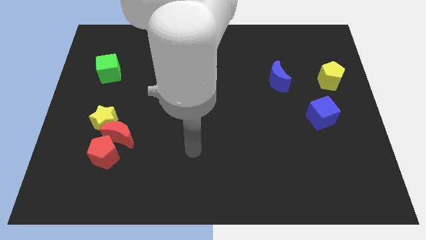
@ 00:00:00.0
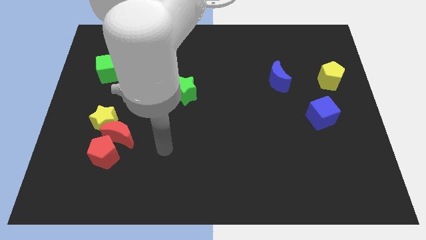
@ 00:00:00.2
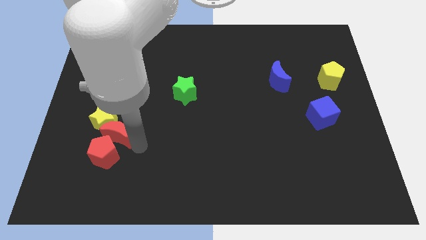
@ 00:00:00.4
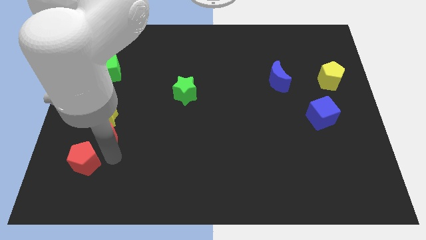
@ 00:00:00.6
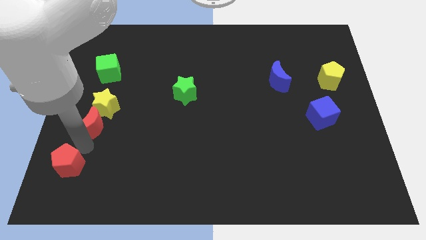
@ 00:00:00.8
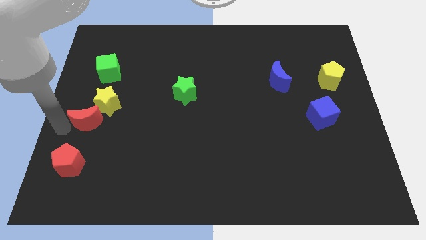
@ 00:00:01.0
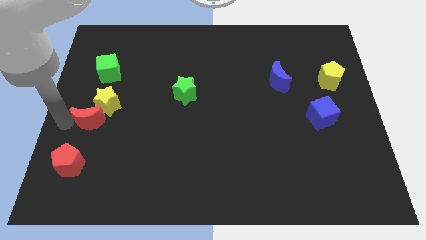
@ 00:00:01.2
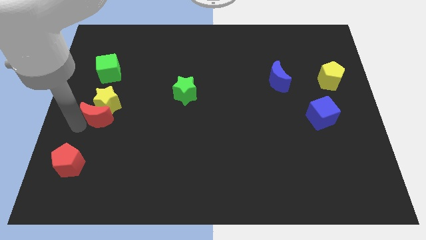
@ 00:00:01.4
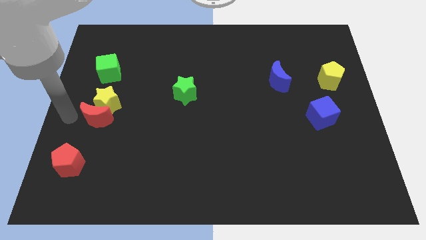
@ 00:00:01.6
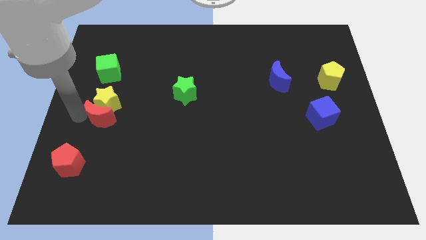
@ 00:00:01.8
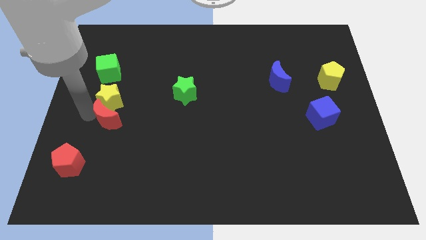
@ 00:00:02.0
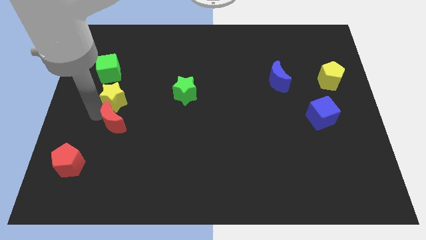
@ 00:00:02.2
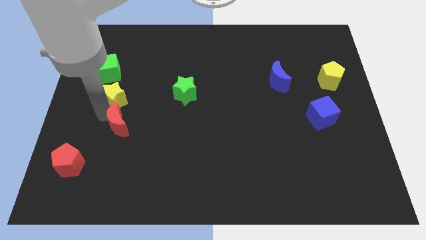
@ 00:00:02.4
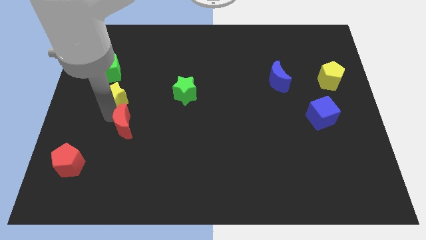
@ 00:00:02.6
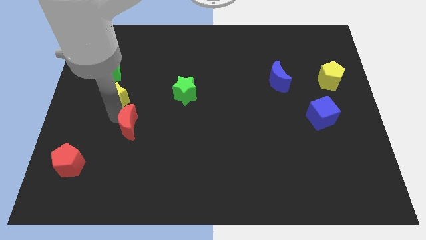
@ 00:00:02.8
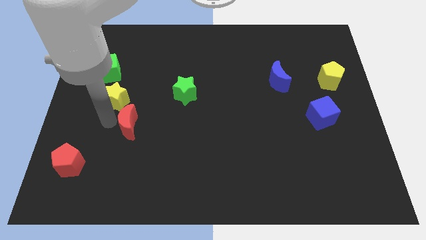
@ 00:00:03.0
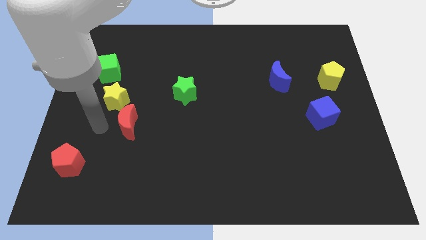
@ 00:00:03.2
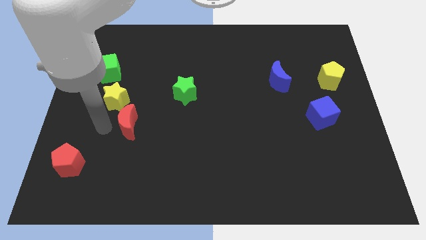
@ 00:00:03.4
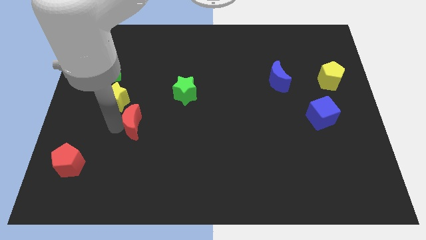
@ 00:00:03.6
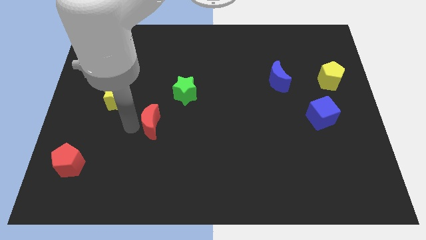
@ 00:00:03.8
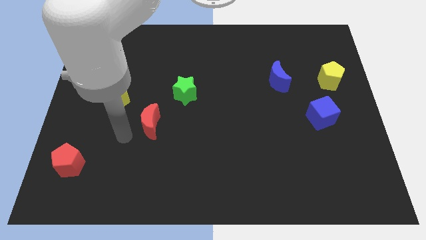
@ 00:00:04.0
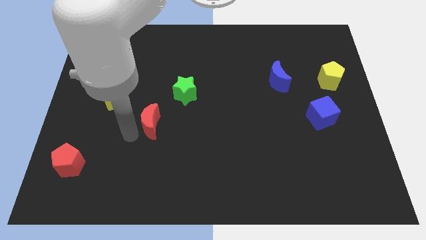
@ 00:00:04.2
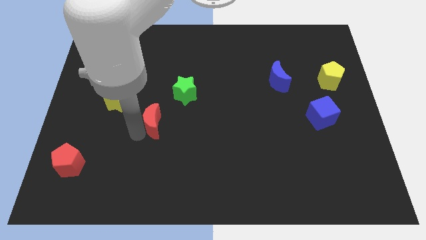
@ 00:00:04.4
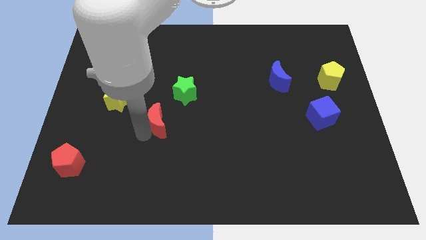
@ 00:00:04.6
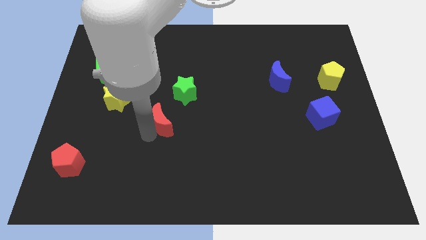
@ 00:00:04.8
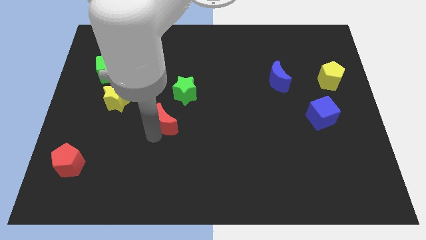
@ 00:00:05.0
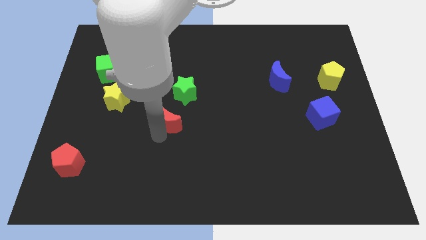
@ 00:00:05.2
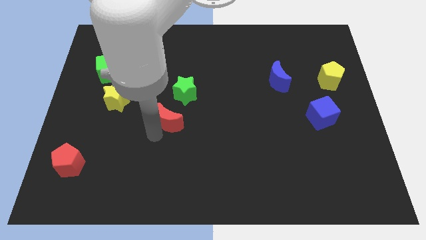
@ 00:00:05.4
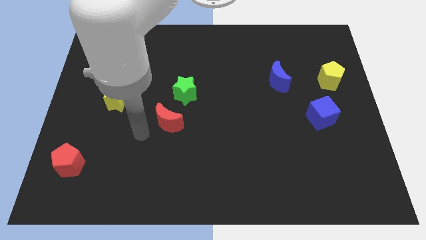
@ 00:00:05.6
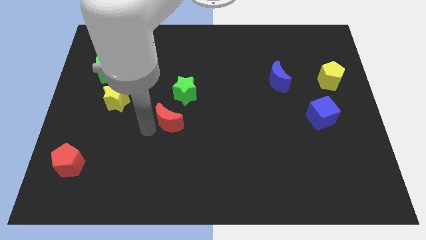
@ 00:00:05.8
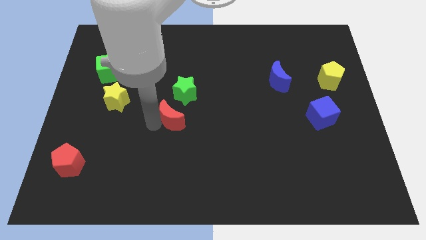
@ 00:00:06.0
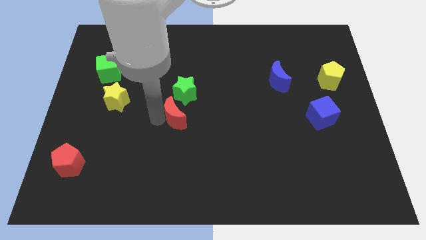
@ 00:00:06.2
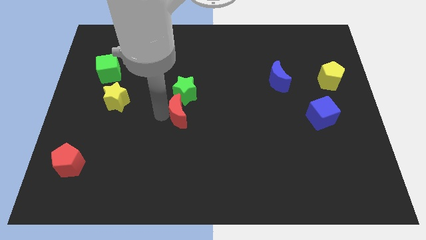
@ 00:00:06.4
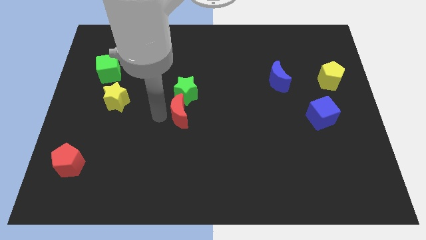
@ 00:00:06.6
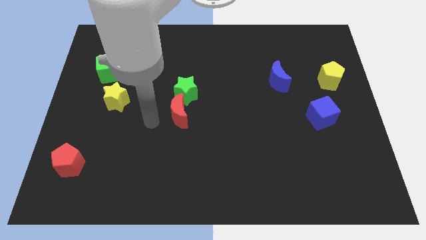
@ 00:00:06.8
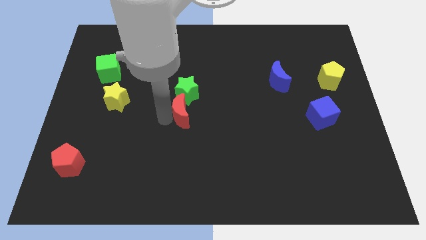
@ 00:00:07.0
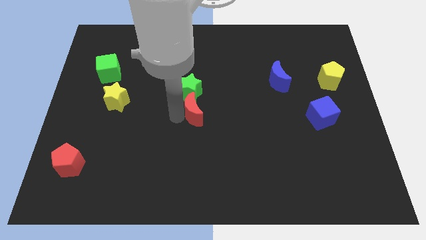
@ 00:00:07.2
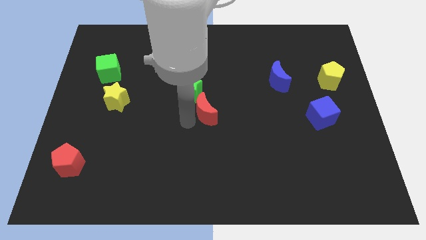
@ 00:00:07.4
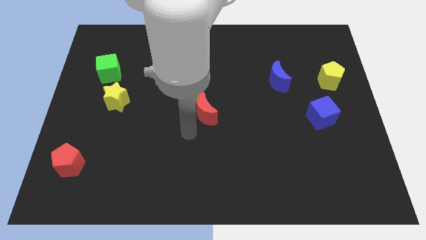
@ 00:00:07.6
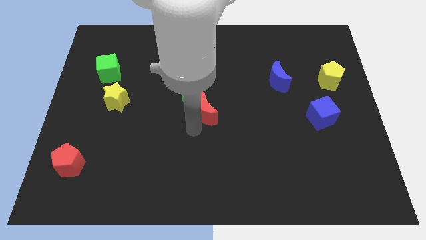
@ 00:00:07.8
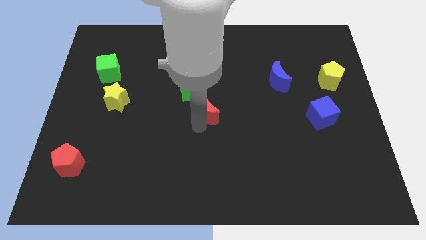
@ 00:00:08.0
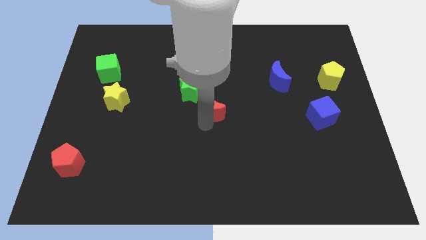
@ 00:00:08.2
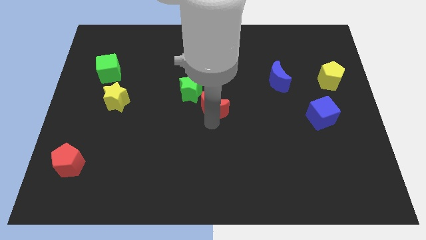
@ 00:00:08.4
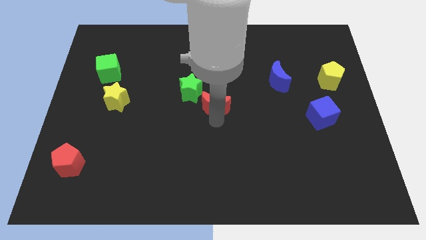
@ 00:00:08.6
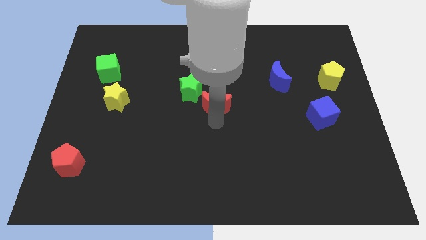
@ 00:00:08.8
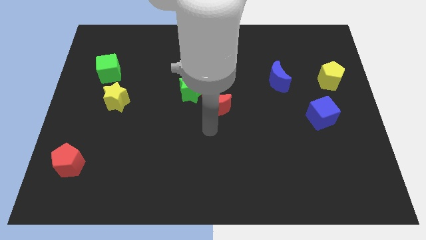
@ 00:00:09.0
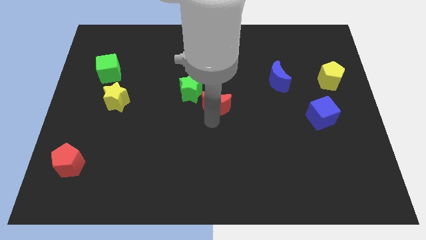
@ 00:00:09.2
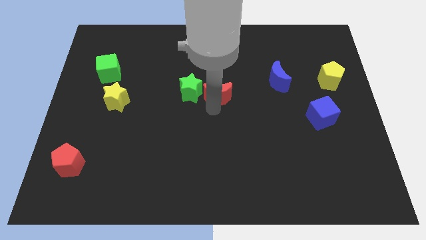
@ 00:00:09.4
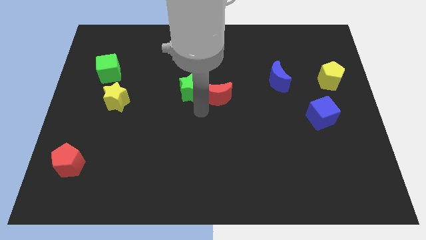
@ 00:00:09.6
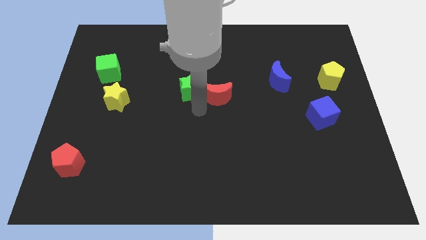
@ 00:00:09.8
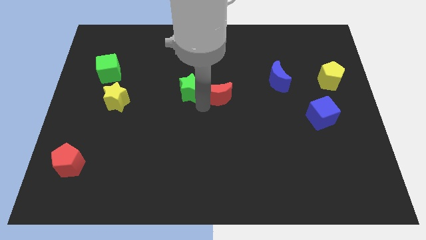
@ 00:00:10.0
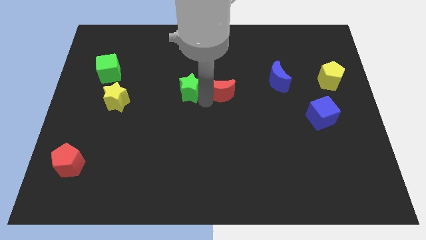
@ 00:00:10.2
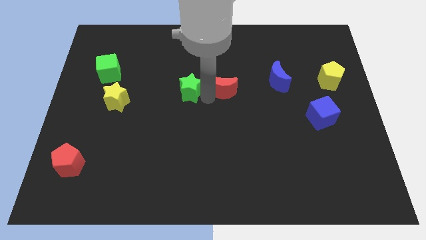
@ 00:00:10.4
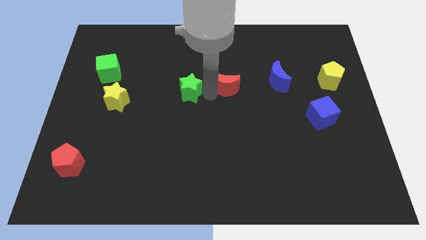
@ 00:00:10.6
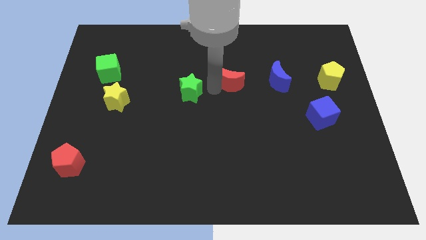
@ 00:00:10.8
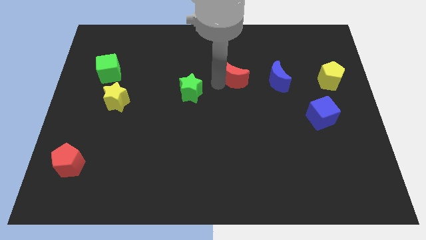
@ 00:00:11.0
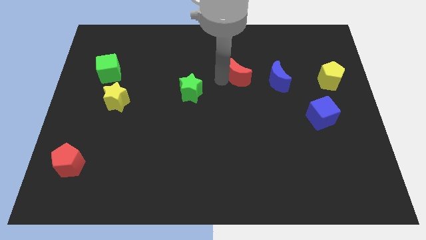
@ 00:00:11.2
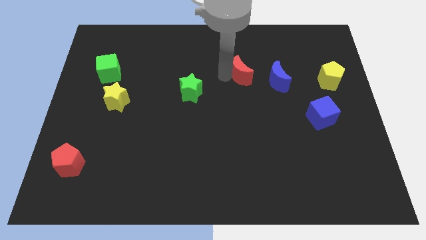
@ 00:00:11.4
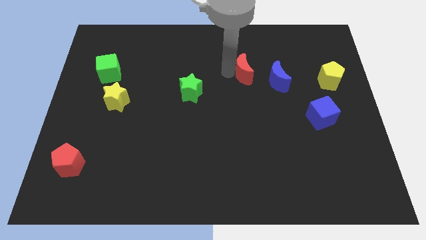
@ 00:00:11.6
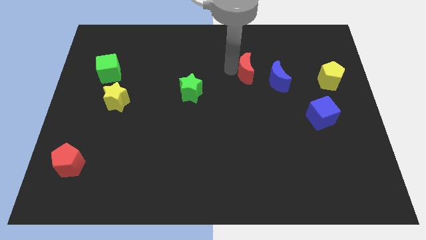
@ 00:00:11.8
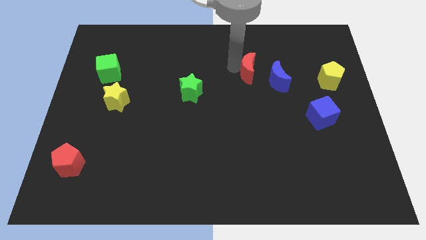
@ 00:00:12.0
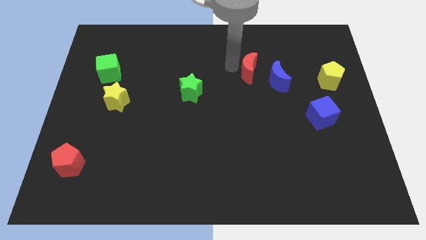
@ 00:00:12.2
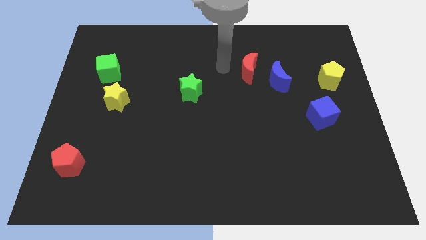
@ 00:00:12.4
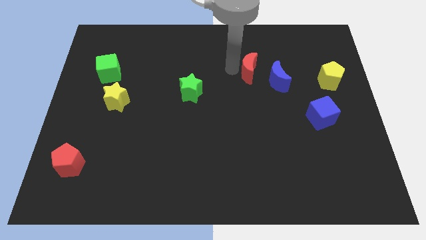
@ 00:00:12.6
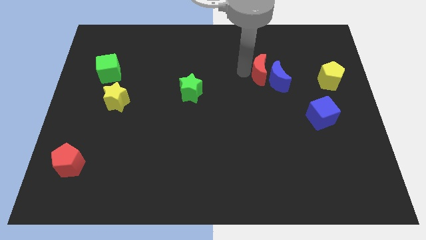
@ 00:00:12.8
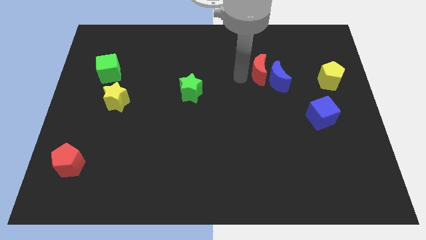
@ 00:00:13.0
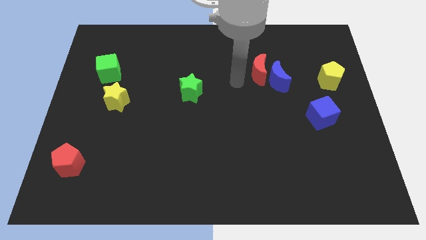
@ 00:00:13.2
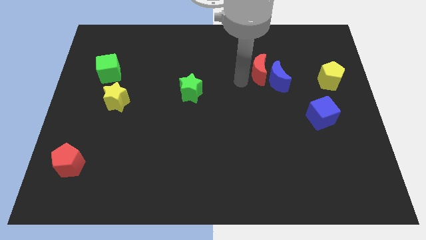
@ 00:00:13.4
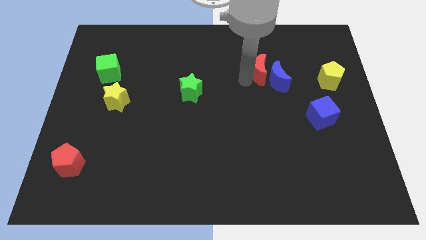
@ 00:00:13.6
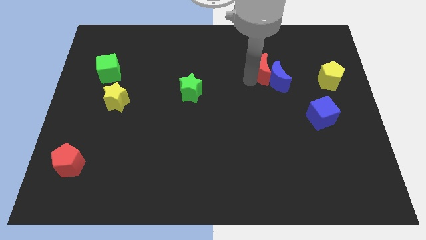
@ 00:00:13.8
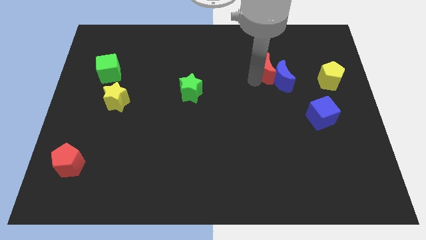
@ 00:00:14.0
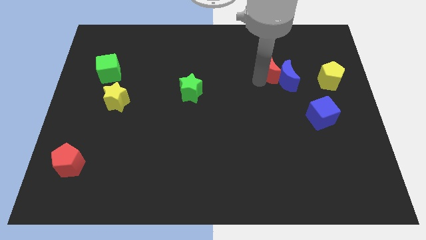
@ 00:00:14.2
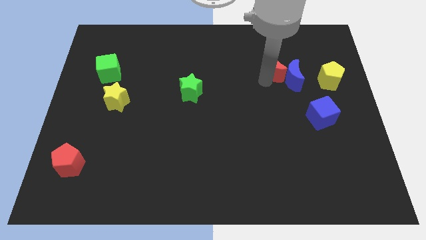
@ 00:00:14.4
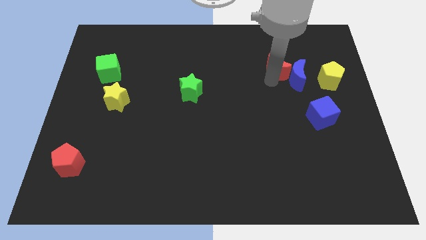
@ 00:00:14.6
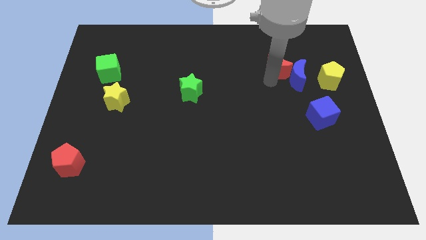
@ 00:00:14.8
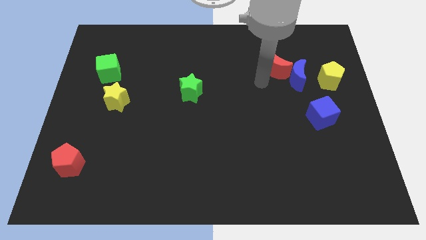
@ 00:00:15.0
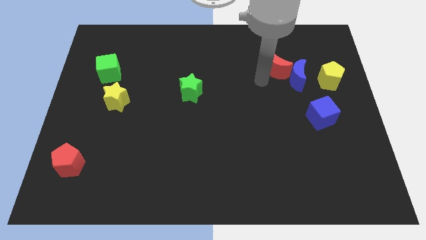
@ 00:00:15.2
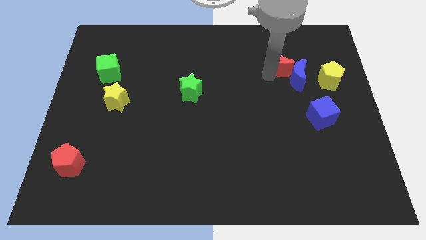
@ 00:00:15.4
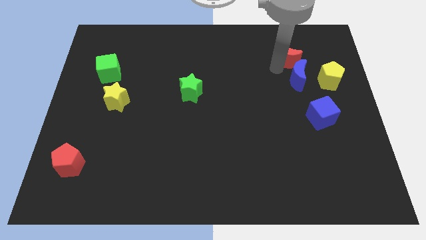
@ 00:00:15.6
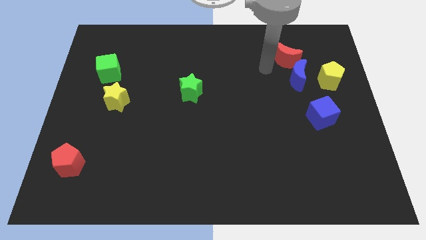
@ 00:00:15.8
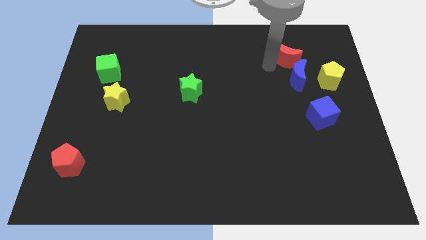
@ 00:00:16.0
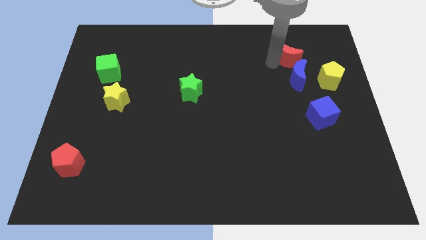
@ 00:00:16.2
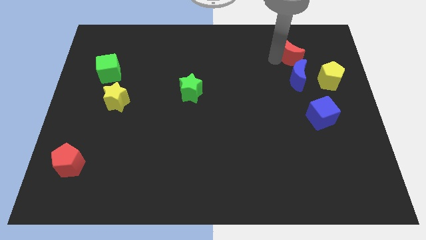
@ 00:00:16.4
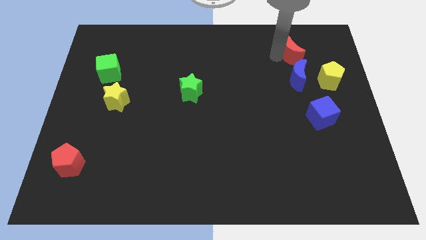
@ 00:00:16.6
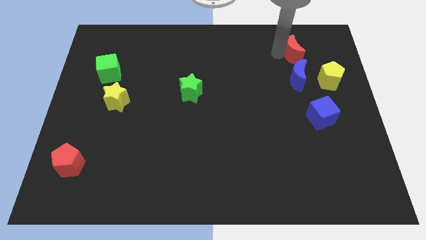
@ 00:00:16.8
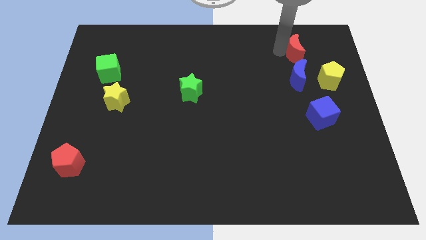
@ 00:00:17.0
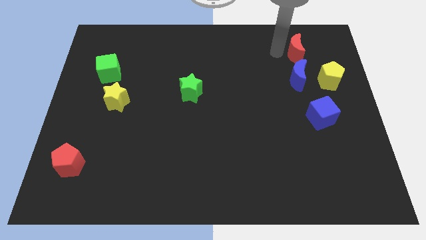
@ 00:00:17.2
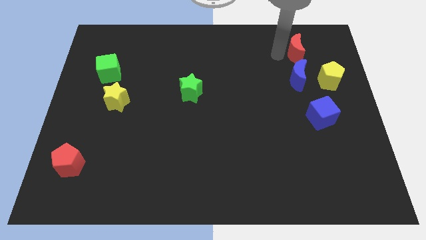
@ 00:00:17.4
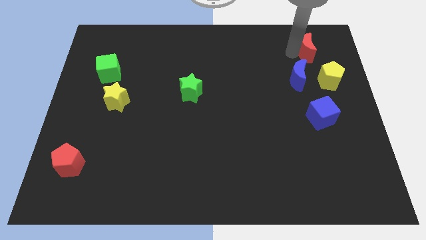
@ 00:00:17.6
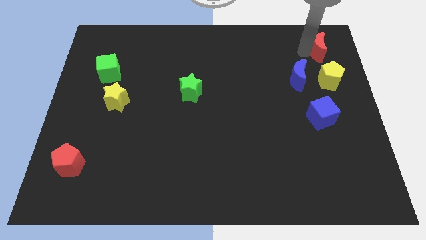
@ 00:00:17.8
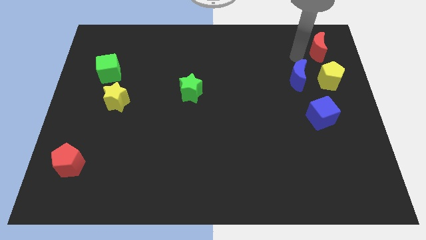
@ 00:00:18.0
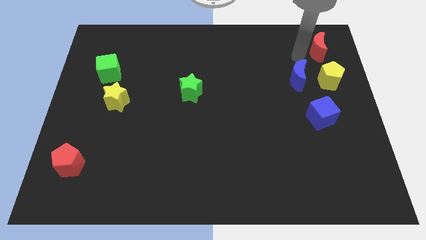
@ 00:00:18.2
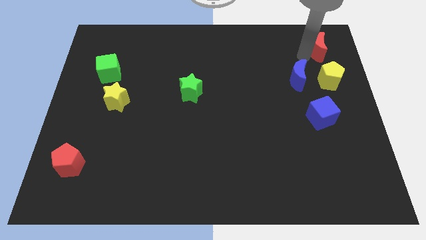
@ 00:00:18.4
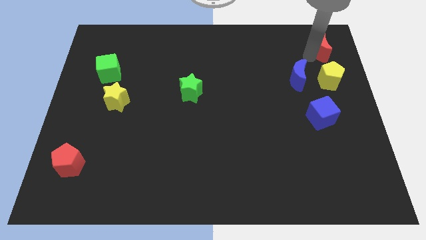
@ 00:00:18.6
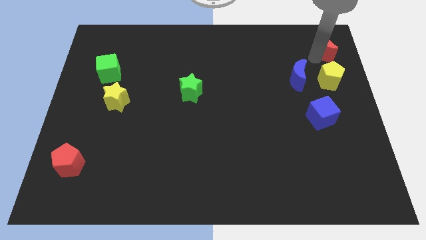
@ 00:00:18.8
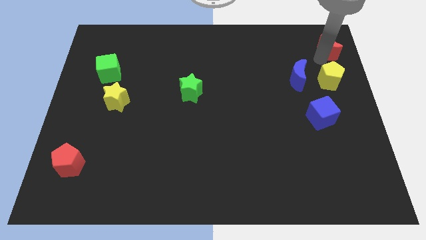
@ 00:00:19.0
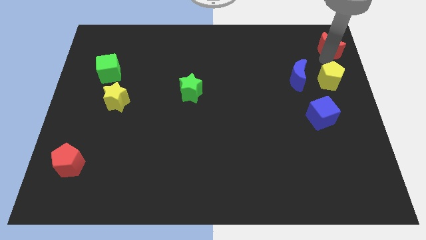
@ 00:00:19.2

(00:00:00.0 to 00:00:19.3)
move the red moon to the top right of the board